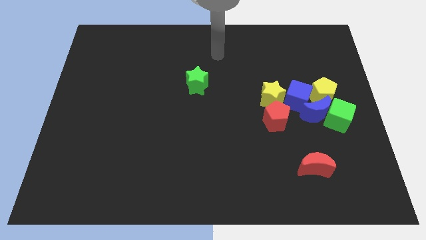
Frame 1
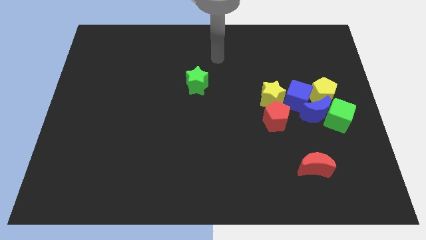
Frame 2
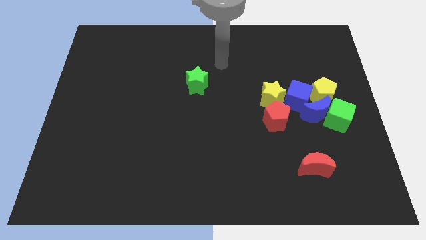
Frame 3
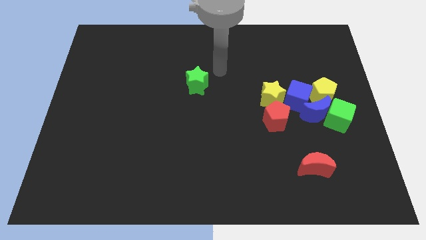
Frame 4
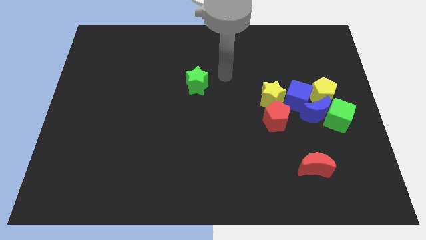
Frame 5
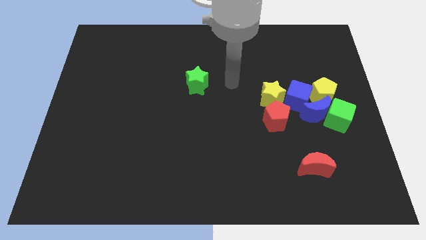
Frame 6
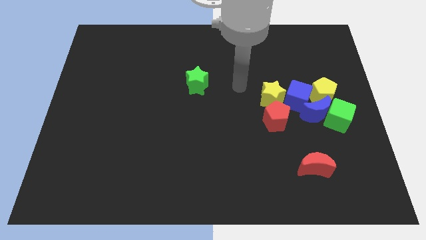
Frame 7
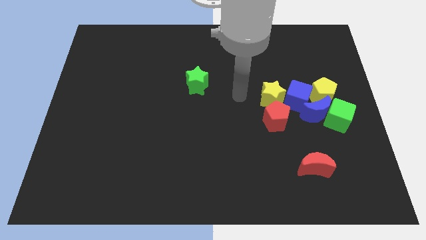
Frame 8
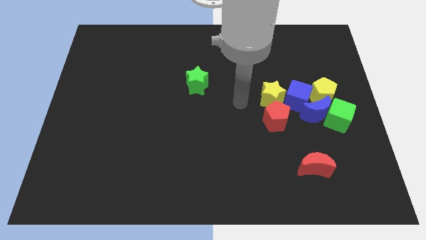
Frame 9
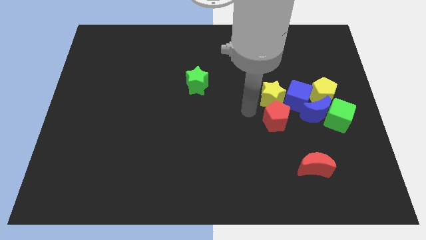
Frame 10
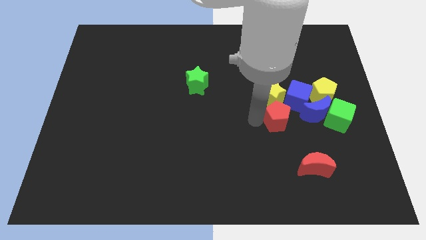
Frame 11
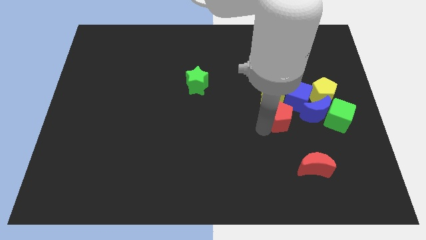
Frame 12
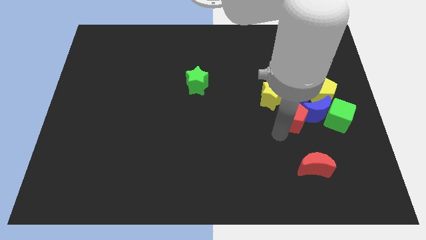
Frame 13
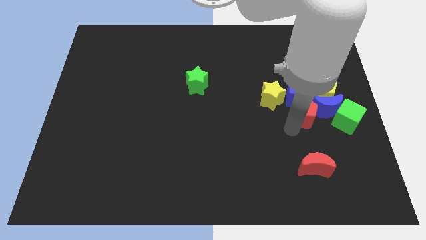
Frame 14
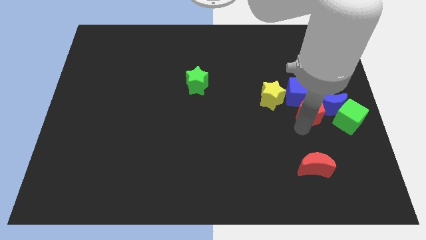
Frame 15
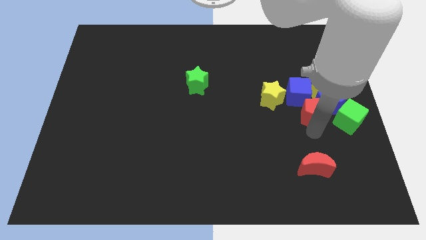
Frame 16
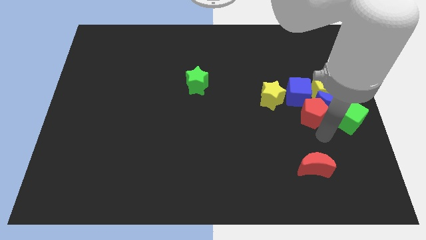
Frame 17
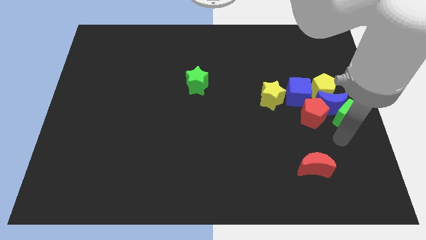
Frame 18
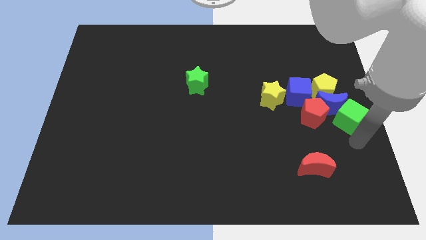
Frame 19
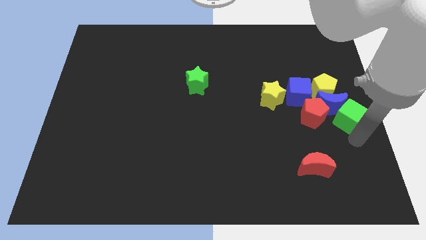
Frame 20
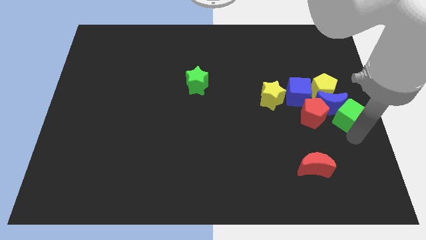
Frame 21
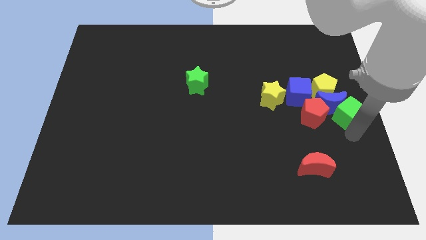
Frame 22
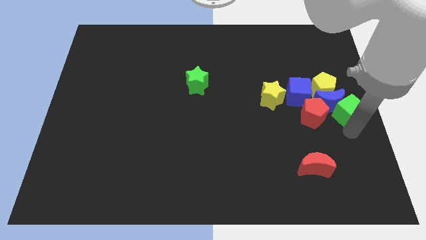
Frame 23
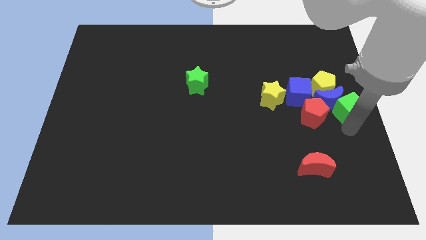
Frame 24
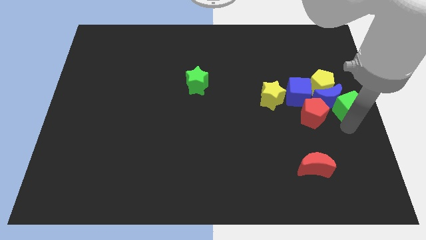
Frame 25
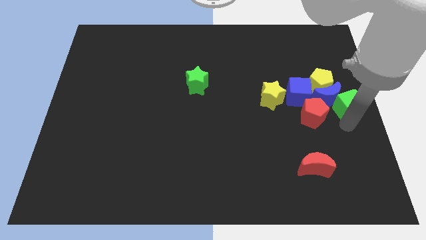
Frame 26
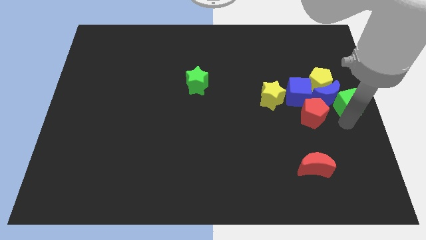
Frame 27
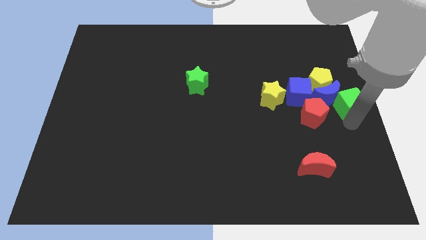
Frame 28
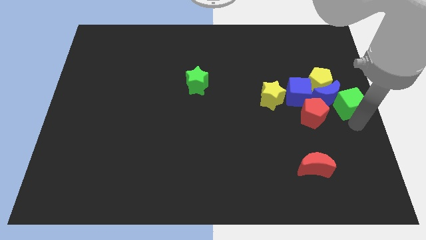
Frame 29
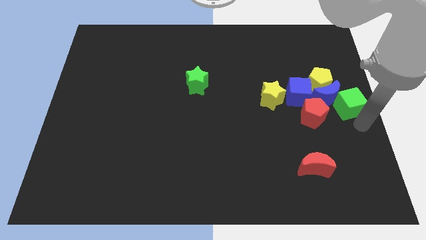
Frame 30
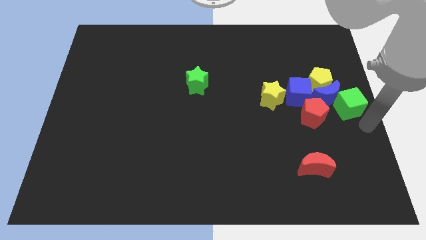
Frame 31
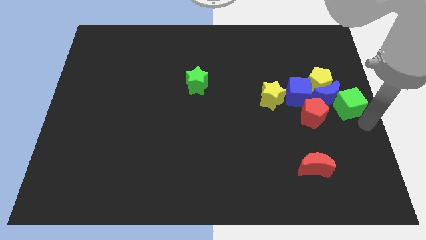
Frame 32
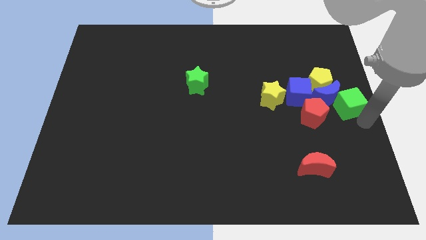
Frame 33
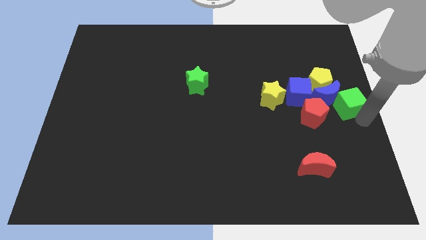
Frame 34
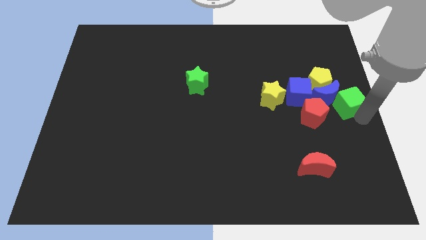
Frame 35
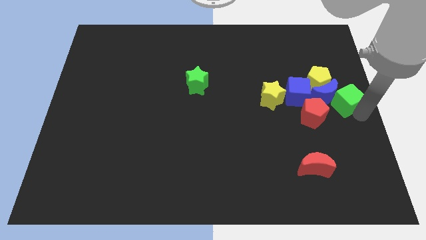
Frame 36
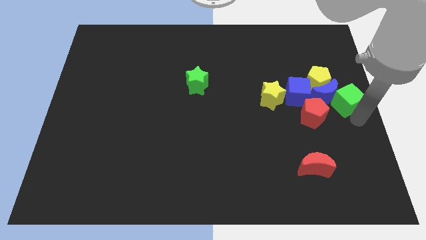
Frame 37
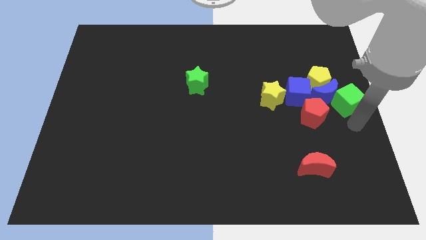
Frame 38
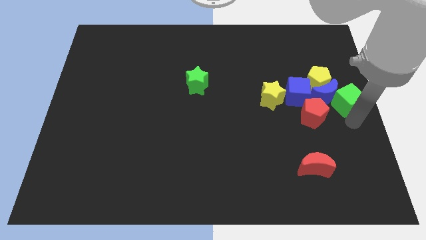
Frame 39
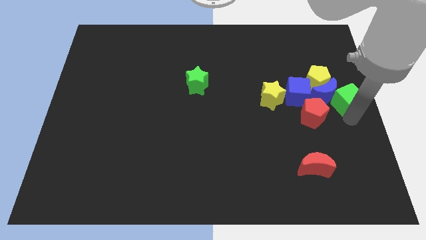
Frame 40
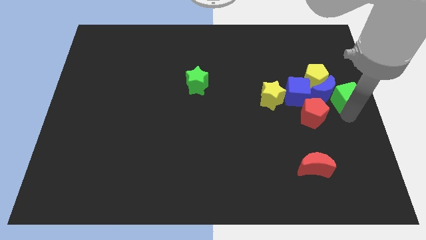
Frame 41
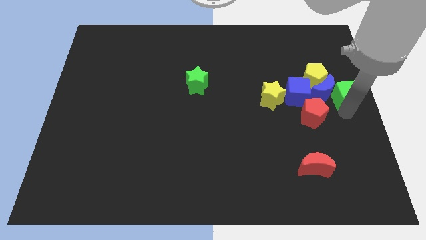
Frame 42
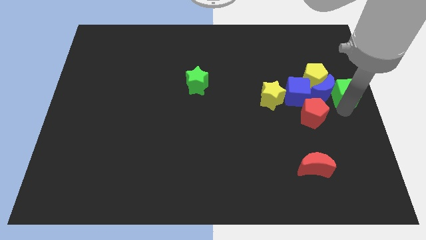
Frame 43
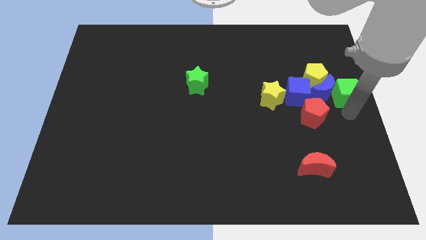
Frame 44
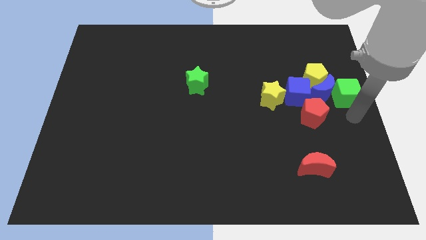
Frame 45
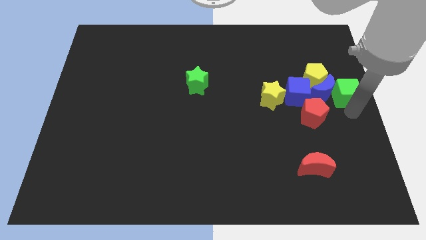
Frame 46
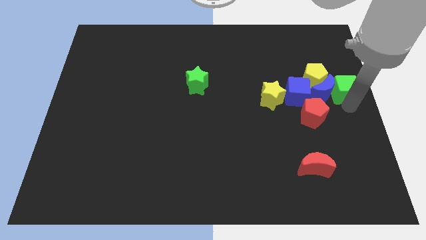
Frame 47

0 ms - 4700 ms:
slide the green cube a little bit up

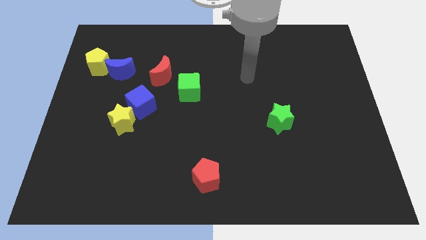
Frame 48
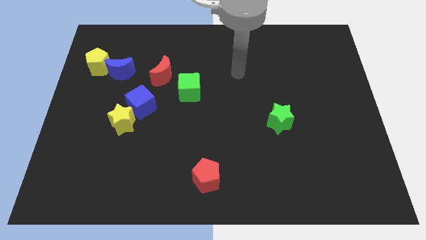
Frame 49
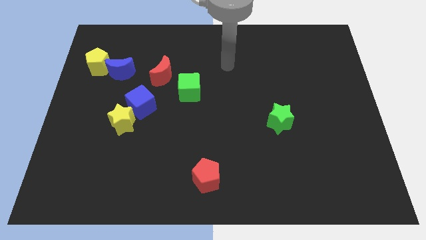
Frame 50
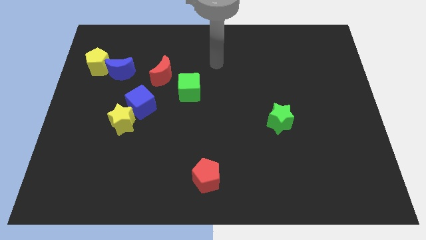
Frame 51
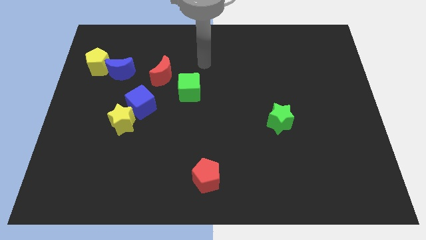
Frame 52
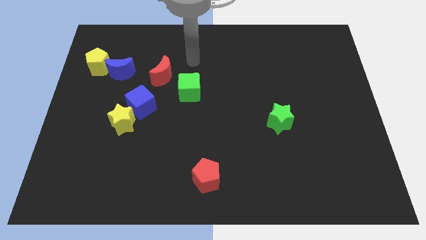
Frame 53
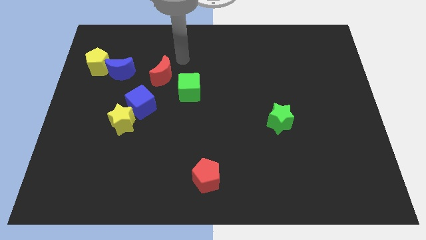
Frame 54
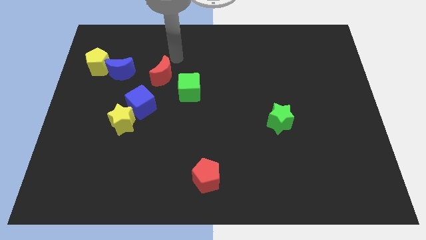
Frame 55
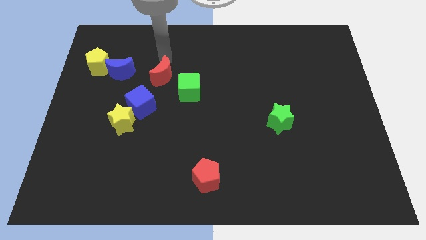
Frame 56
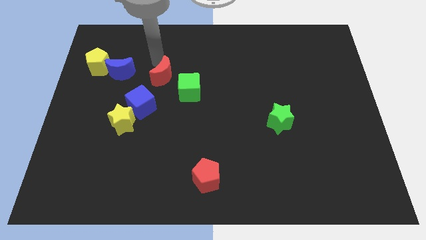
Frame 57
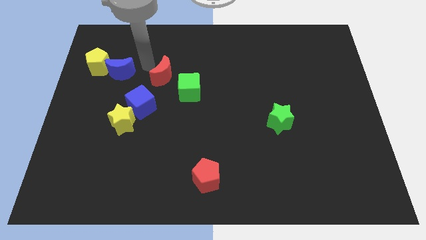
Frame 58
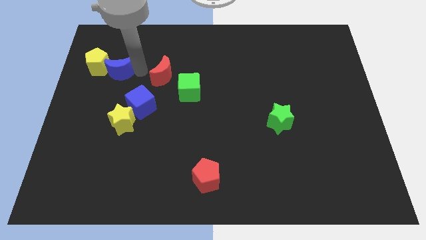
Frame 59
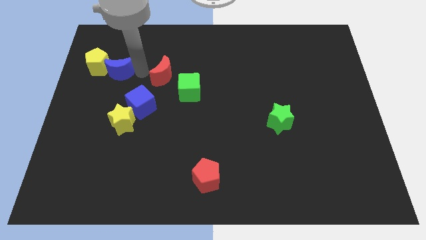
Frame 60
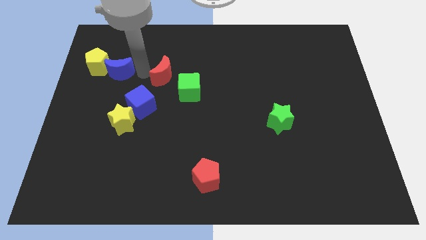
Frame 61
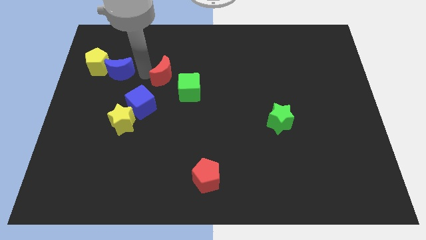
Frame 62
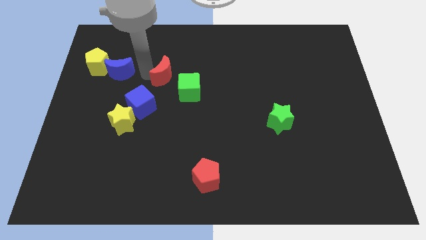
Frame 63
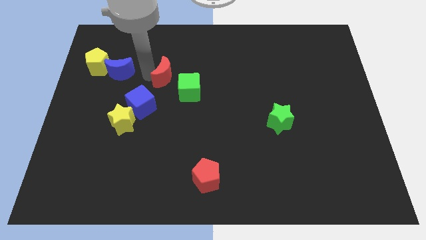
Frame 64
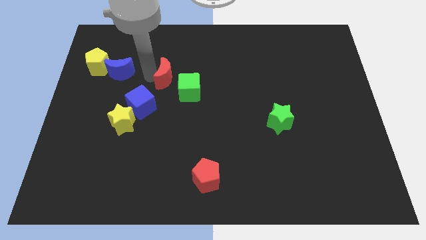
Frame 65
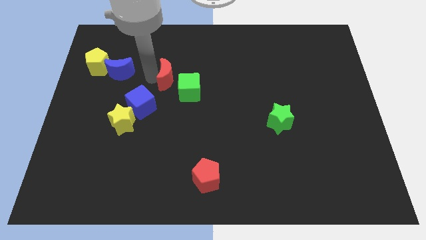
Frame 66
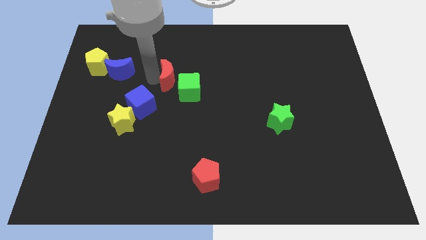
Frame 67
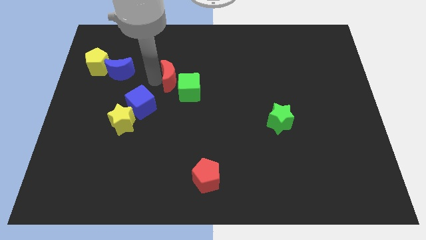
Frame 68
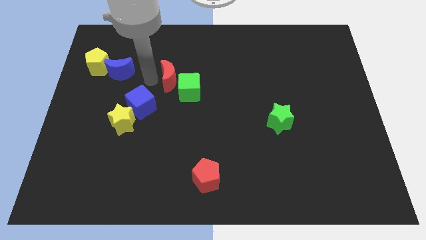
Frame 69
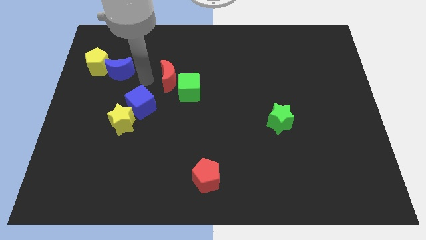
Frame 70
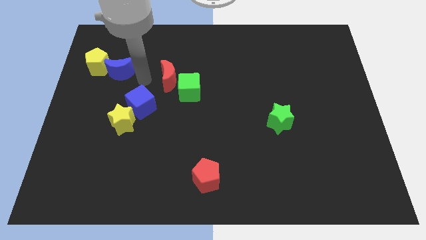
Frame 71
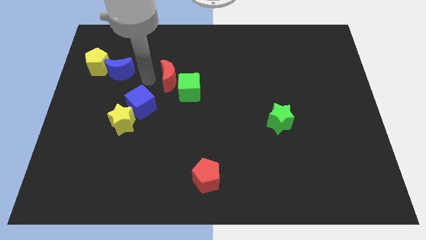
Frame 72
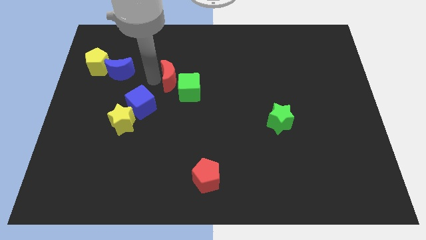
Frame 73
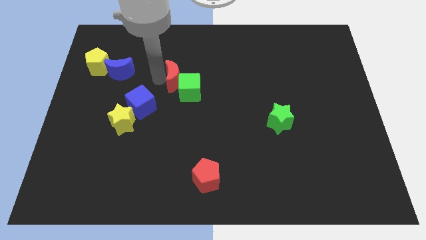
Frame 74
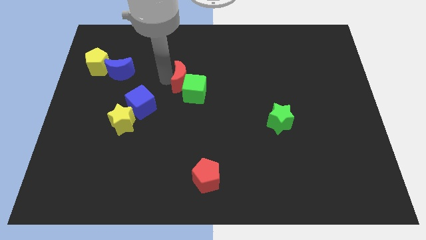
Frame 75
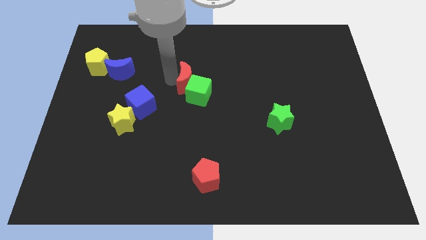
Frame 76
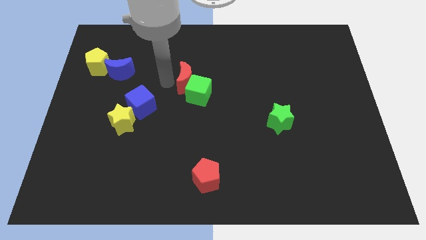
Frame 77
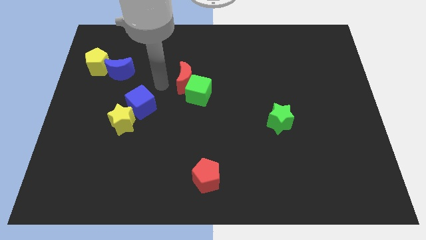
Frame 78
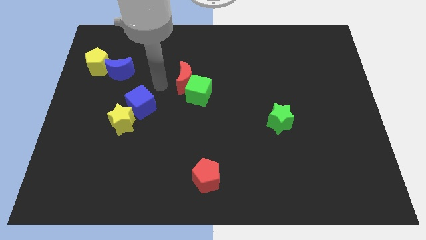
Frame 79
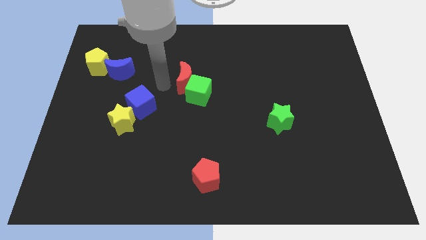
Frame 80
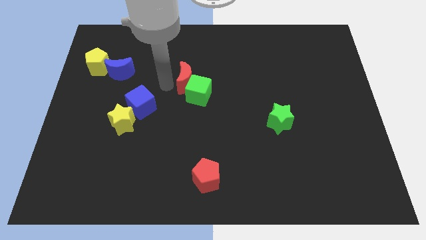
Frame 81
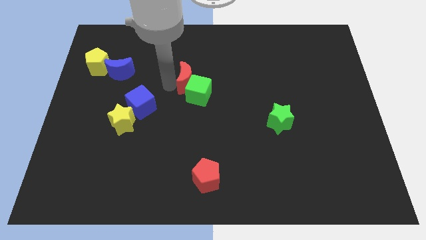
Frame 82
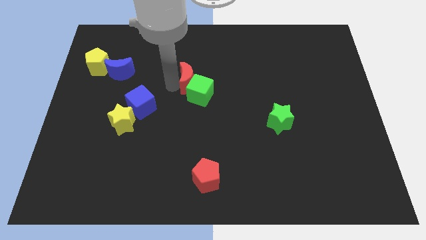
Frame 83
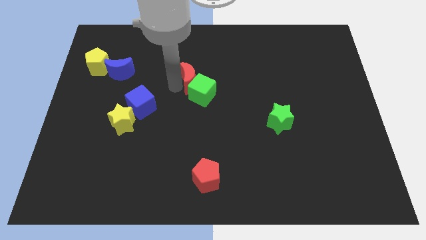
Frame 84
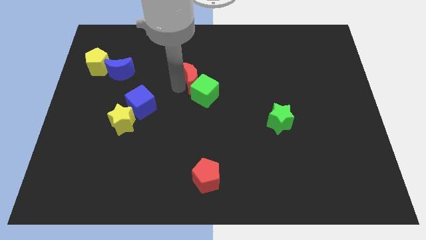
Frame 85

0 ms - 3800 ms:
slightly move the red moon to the right
